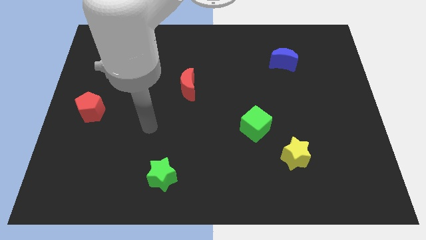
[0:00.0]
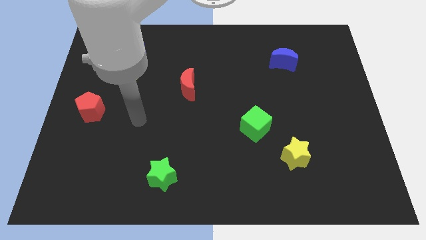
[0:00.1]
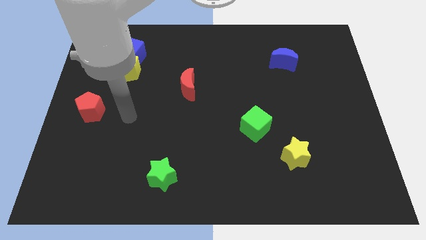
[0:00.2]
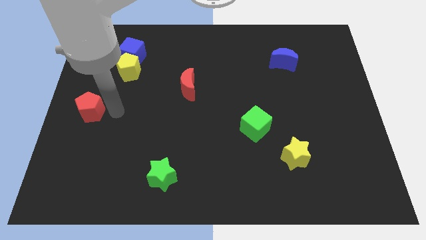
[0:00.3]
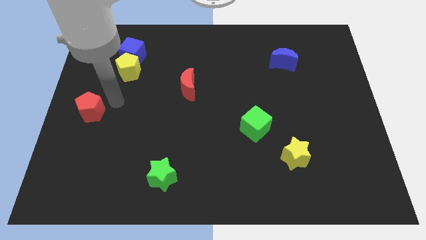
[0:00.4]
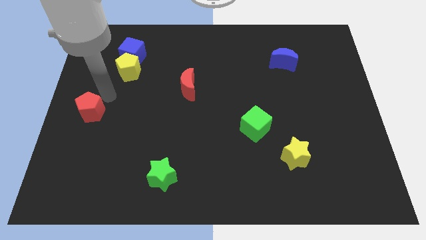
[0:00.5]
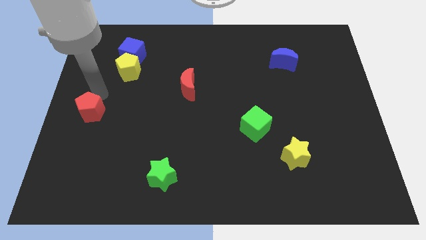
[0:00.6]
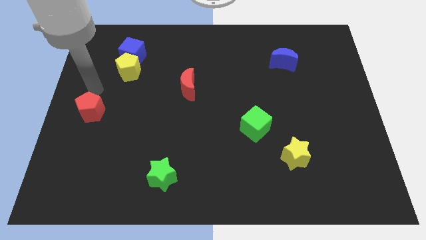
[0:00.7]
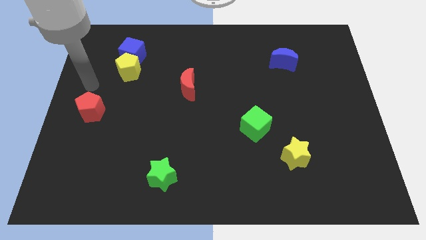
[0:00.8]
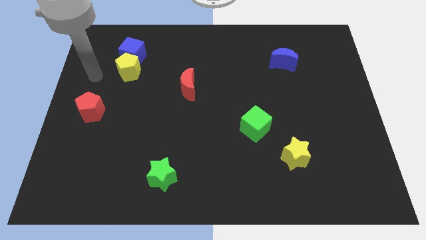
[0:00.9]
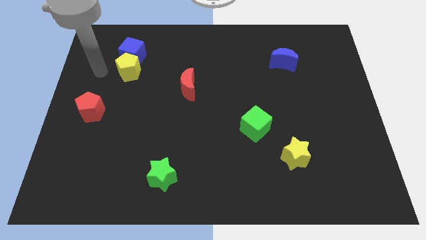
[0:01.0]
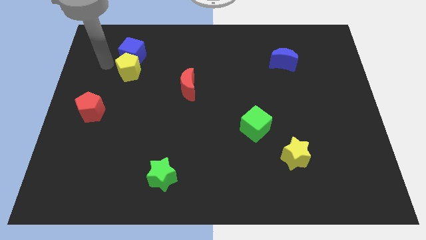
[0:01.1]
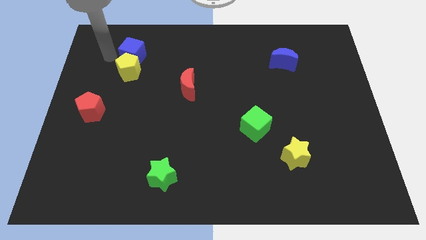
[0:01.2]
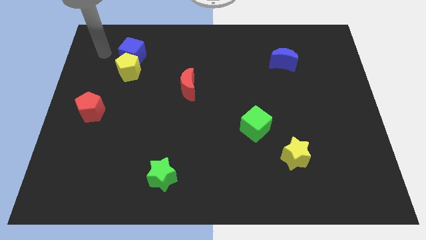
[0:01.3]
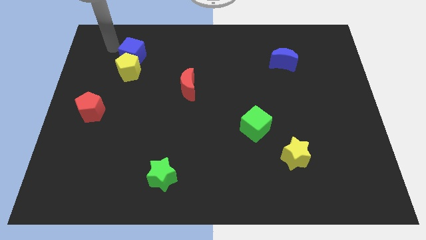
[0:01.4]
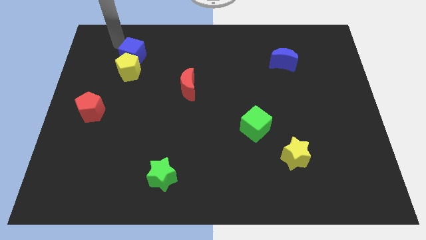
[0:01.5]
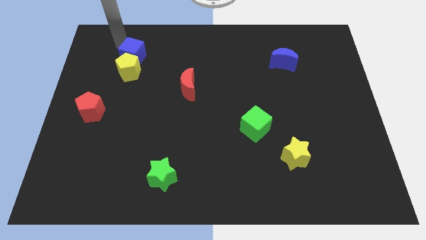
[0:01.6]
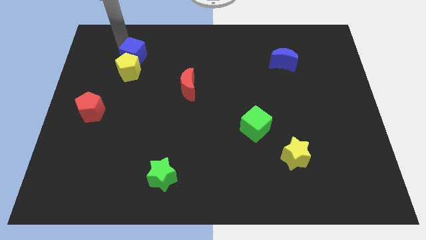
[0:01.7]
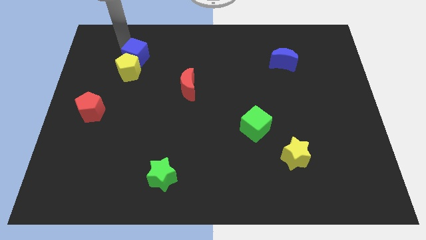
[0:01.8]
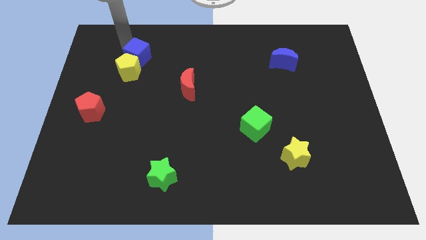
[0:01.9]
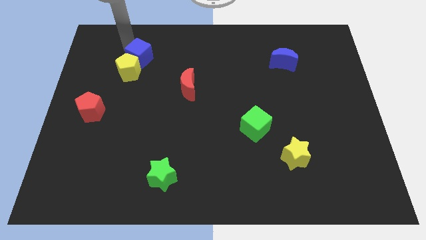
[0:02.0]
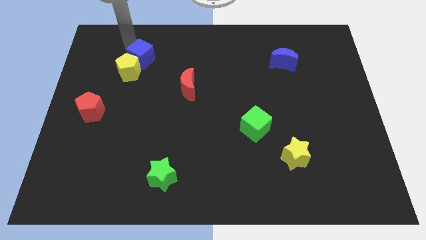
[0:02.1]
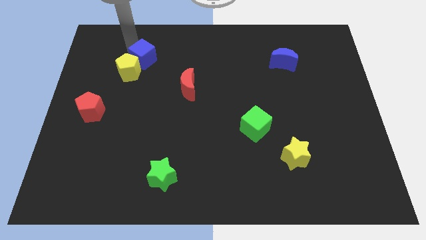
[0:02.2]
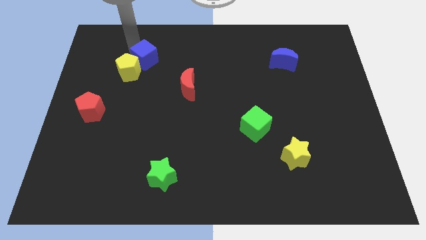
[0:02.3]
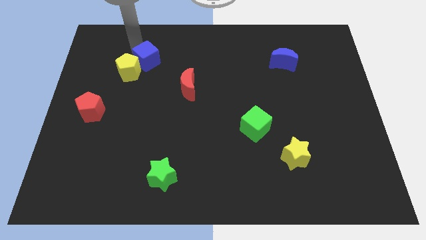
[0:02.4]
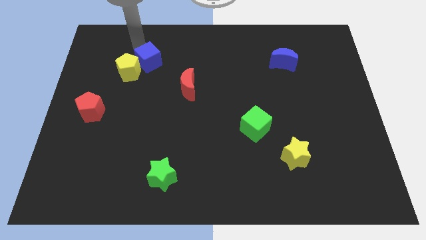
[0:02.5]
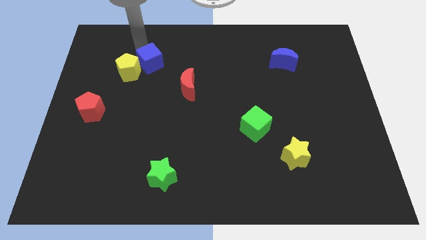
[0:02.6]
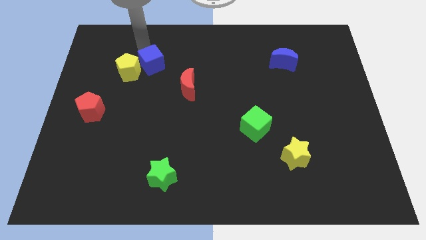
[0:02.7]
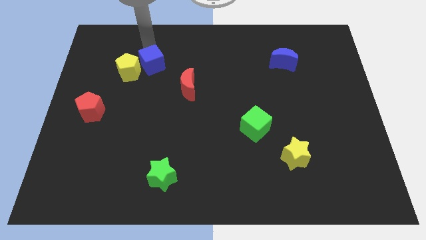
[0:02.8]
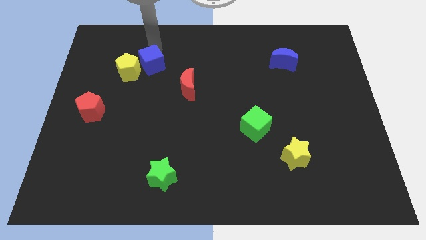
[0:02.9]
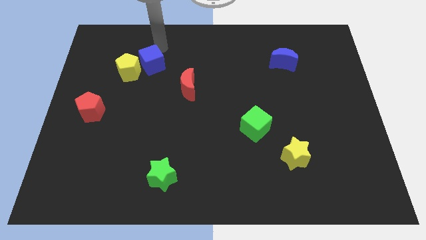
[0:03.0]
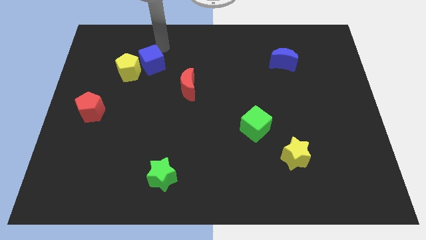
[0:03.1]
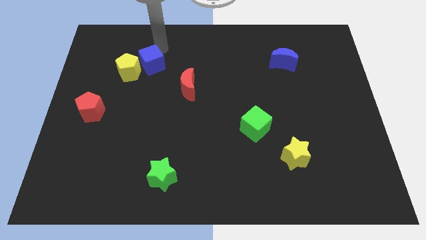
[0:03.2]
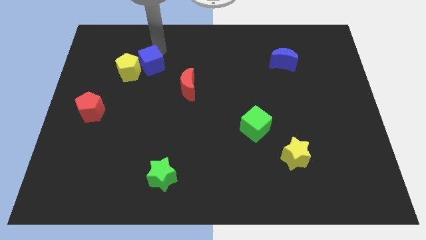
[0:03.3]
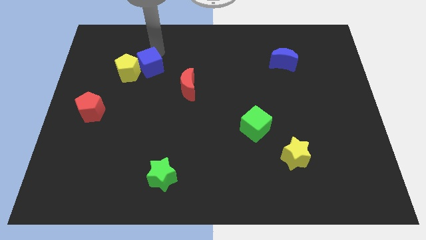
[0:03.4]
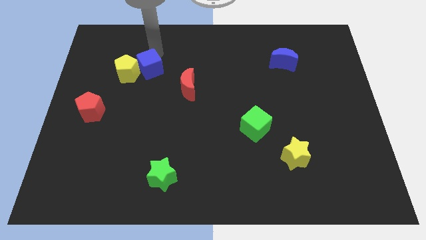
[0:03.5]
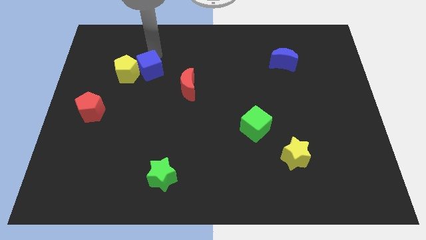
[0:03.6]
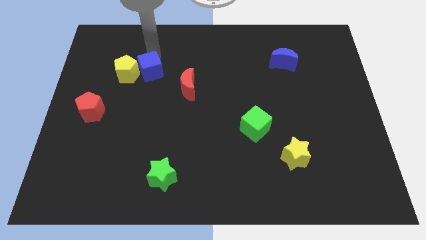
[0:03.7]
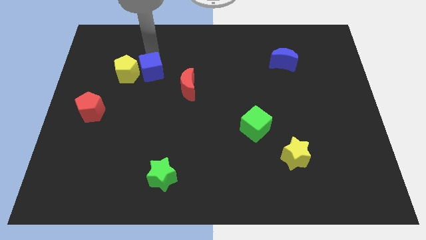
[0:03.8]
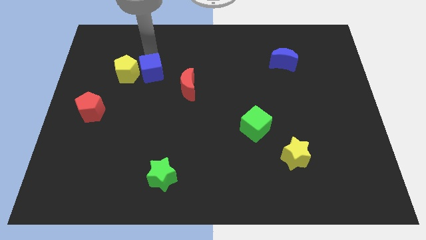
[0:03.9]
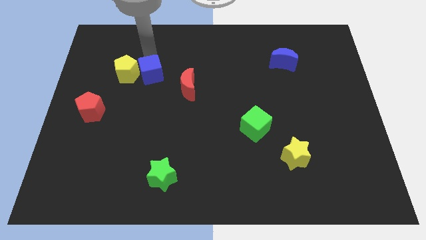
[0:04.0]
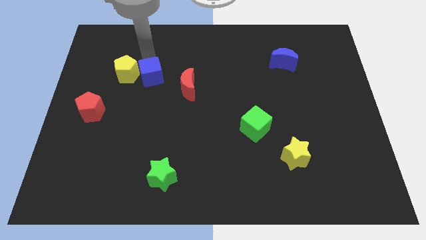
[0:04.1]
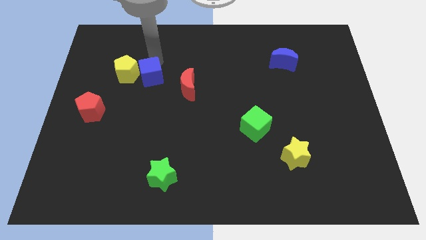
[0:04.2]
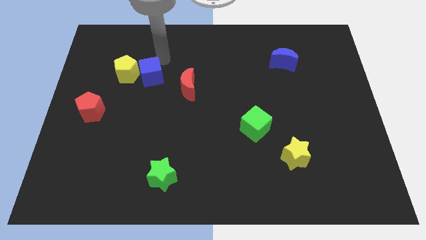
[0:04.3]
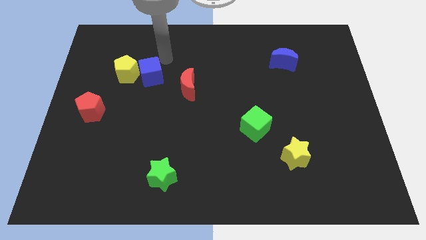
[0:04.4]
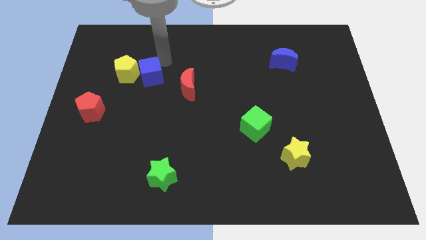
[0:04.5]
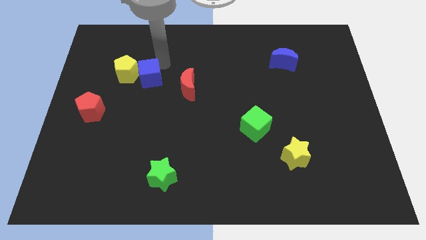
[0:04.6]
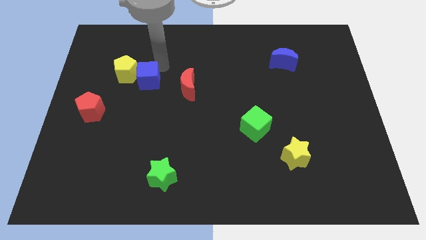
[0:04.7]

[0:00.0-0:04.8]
slightly move the blue cube downwards

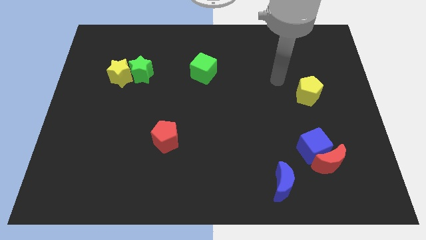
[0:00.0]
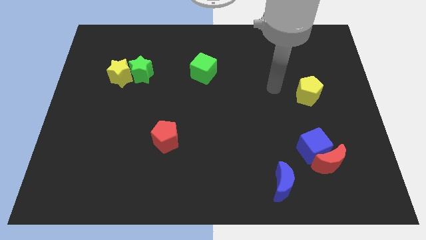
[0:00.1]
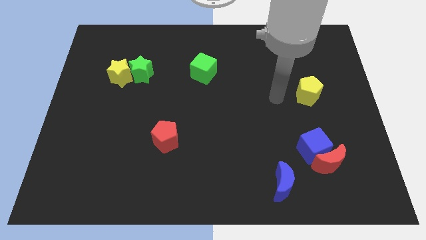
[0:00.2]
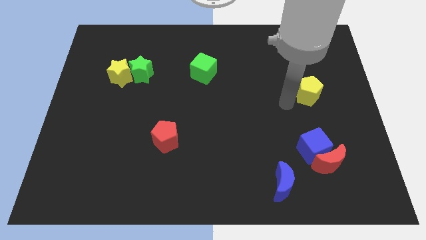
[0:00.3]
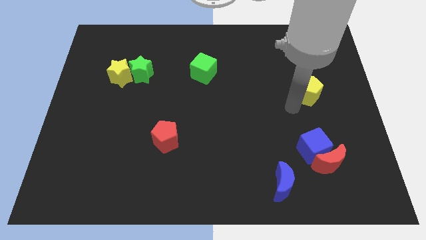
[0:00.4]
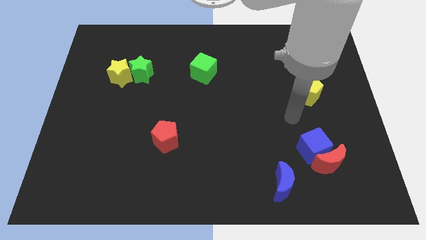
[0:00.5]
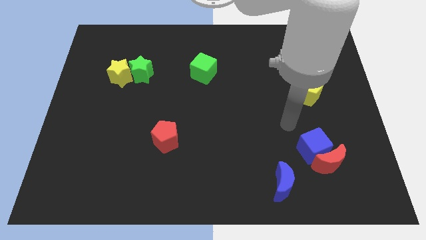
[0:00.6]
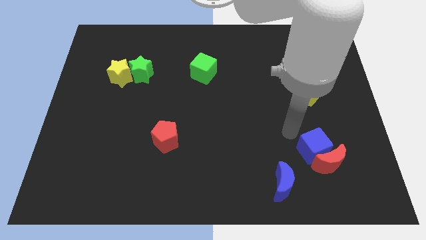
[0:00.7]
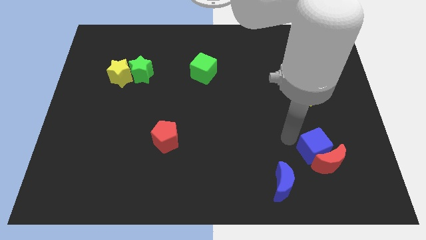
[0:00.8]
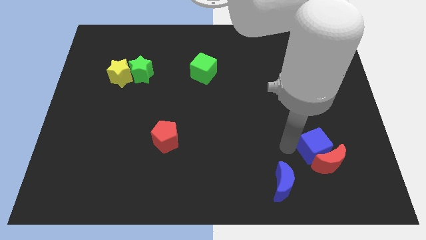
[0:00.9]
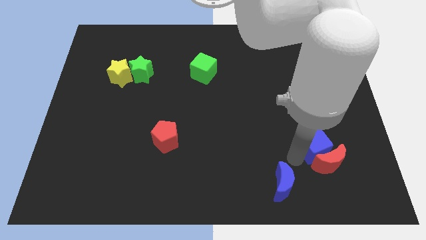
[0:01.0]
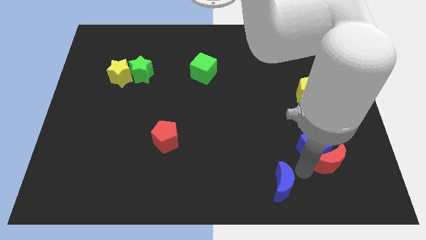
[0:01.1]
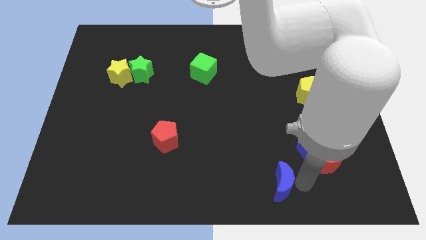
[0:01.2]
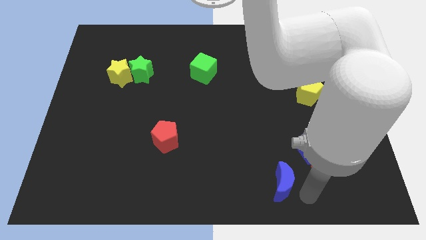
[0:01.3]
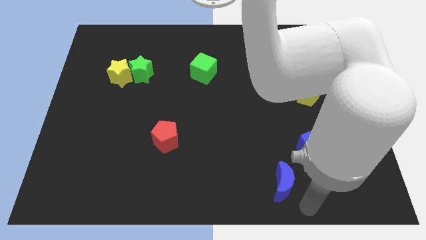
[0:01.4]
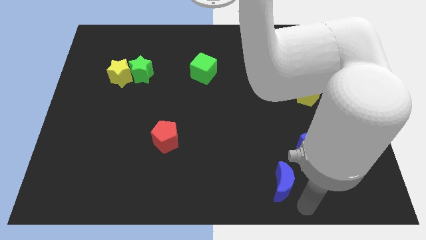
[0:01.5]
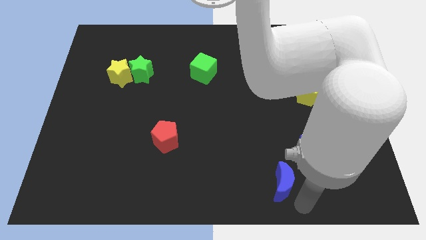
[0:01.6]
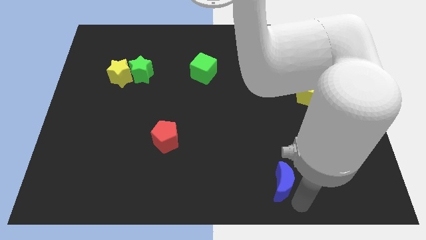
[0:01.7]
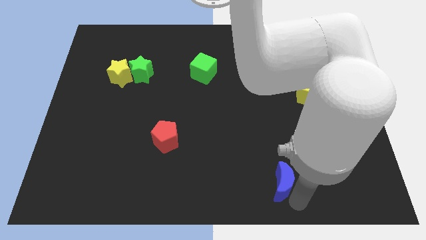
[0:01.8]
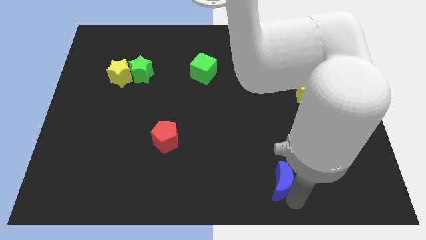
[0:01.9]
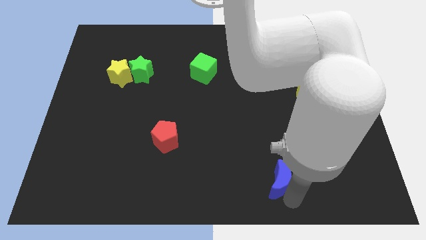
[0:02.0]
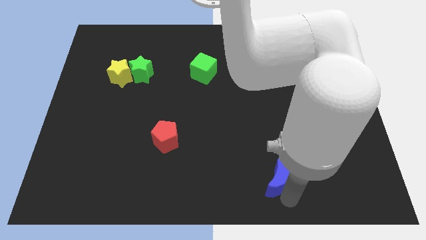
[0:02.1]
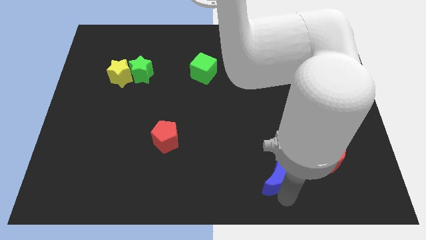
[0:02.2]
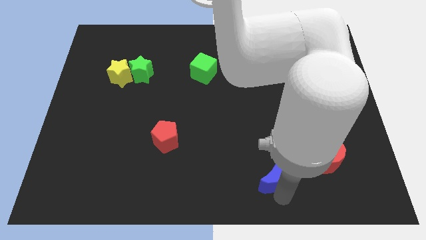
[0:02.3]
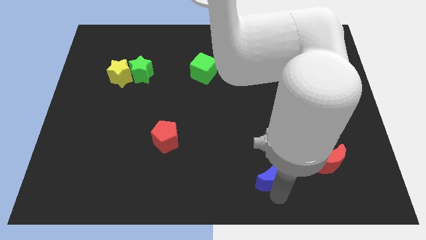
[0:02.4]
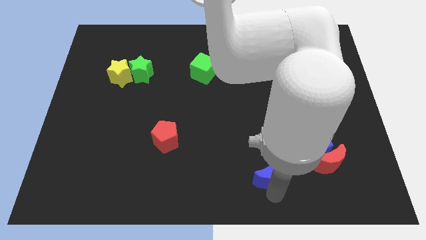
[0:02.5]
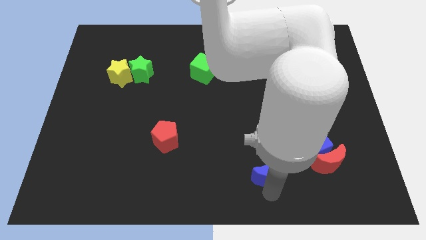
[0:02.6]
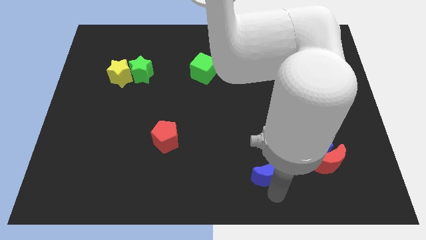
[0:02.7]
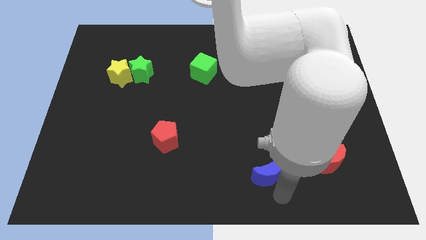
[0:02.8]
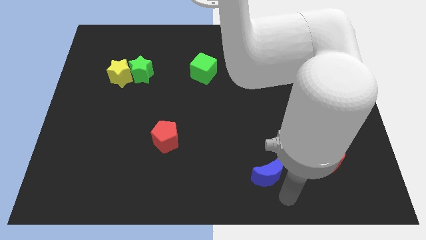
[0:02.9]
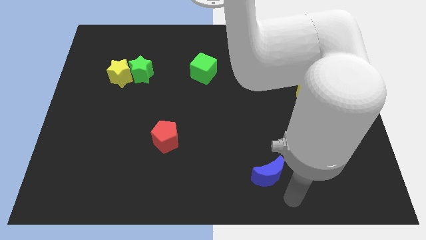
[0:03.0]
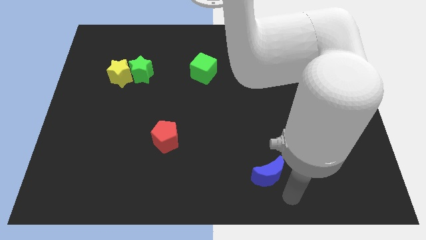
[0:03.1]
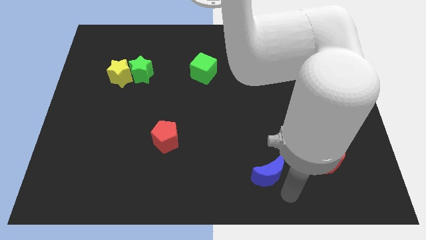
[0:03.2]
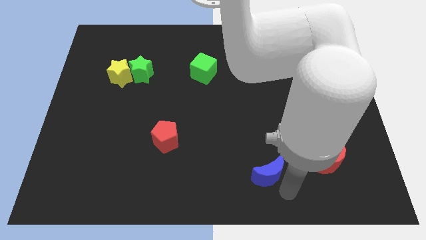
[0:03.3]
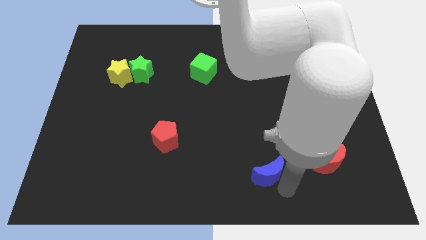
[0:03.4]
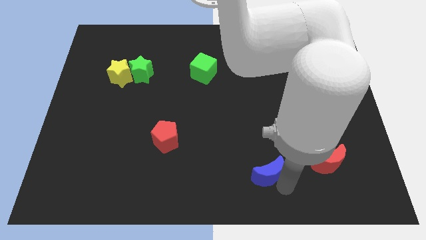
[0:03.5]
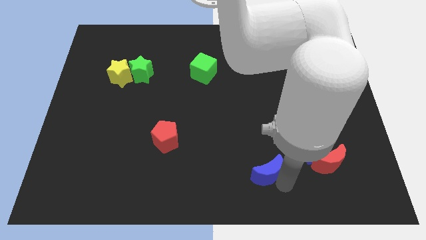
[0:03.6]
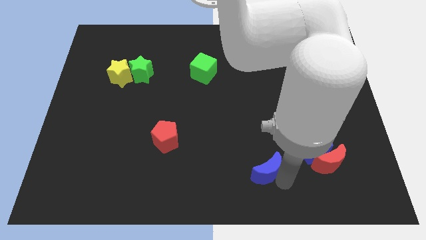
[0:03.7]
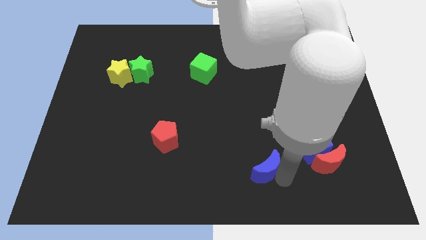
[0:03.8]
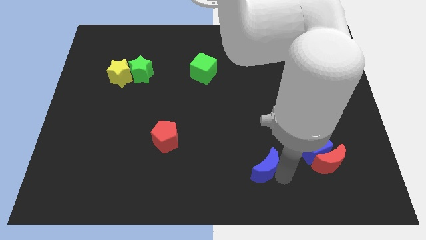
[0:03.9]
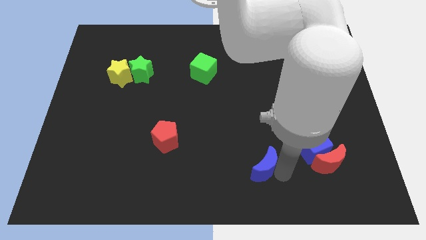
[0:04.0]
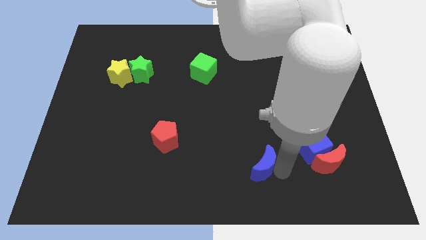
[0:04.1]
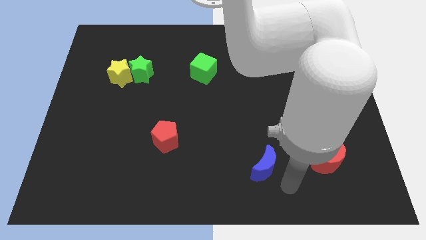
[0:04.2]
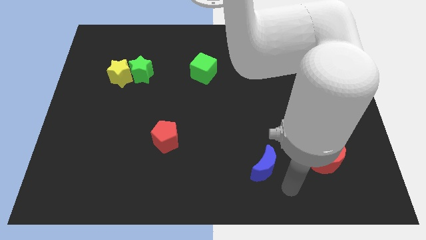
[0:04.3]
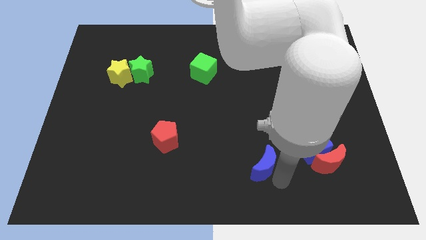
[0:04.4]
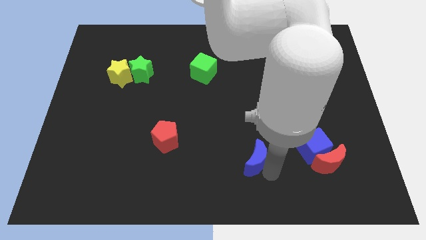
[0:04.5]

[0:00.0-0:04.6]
move the blue moon slightly upwards and left
